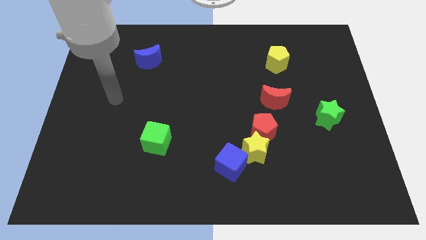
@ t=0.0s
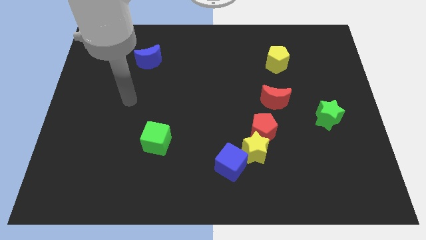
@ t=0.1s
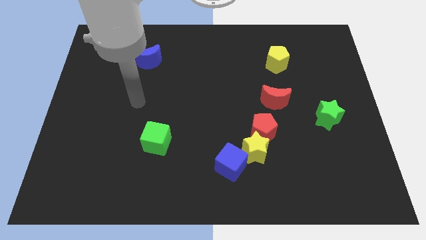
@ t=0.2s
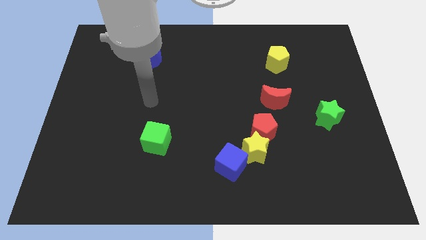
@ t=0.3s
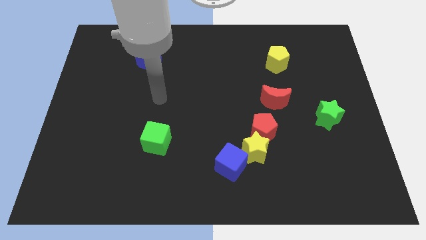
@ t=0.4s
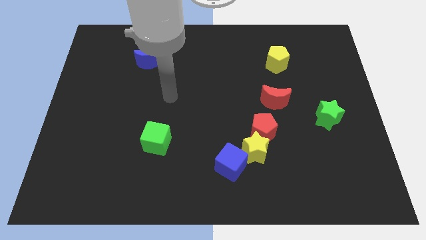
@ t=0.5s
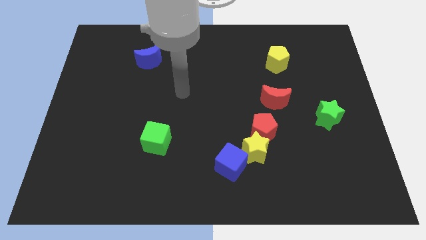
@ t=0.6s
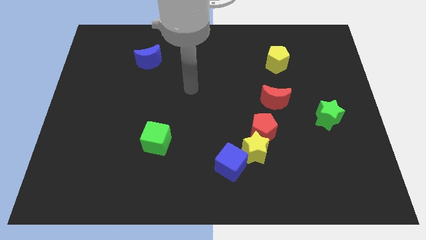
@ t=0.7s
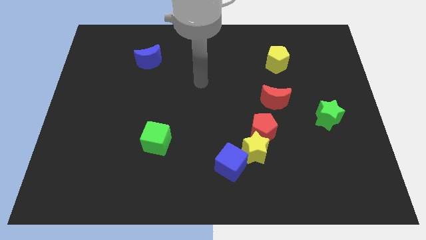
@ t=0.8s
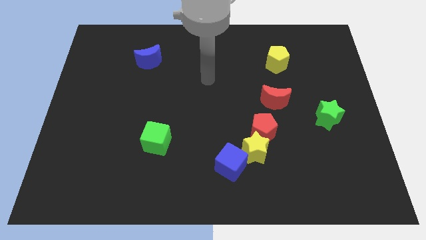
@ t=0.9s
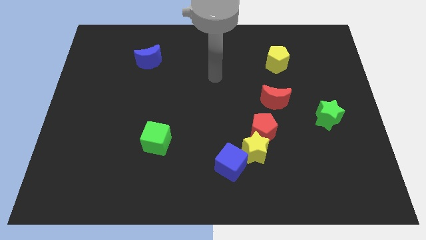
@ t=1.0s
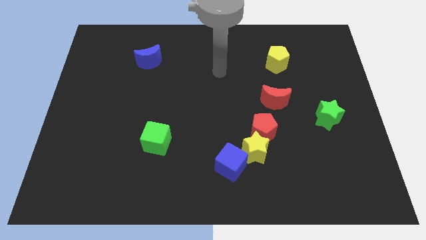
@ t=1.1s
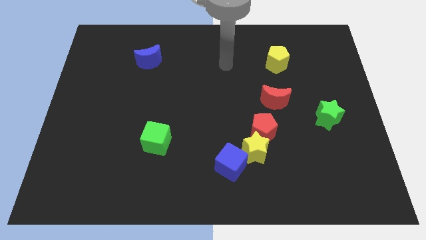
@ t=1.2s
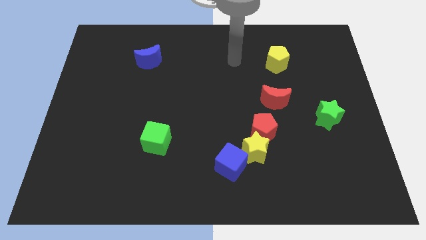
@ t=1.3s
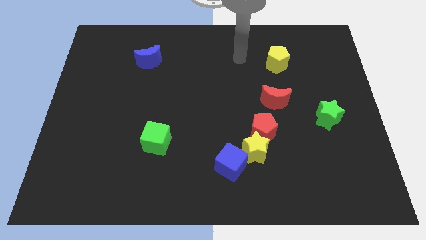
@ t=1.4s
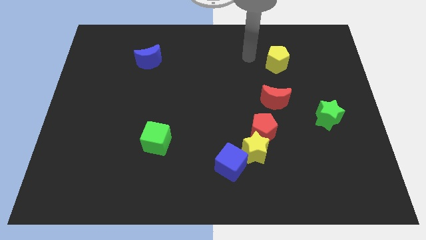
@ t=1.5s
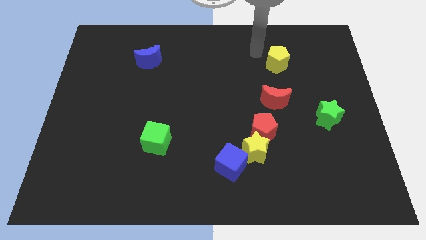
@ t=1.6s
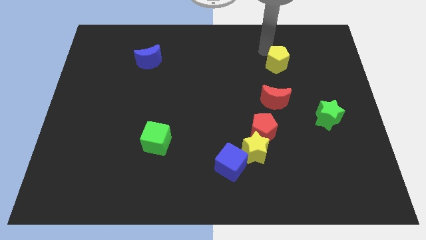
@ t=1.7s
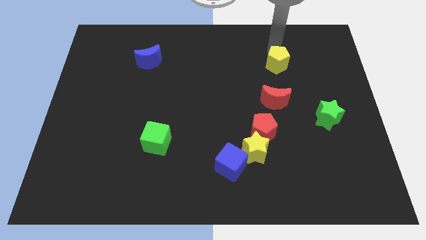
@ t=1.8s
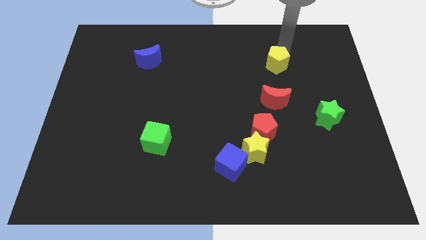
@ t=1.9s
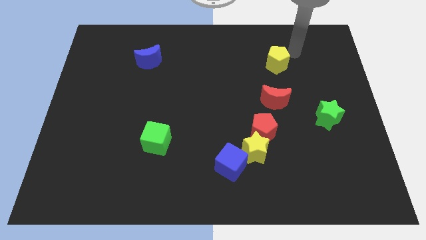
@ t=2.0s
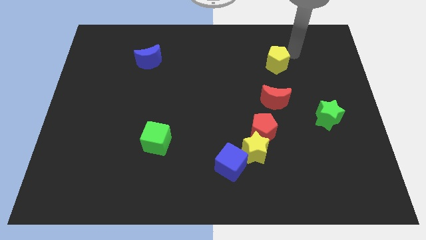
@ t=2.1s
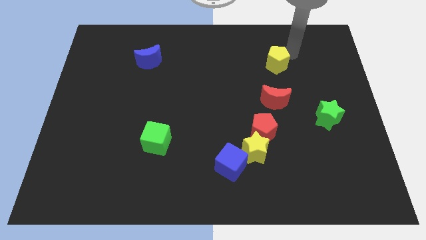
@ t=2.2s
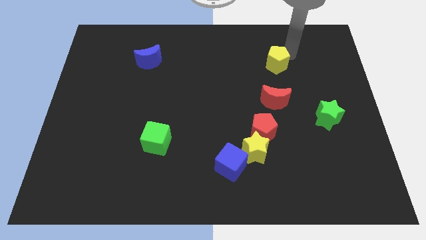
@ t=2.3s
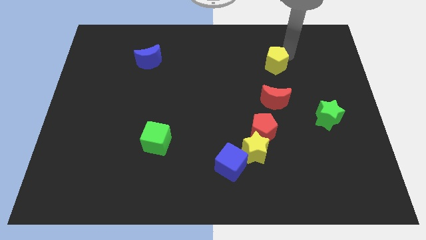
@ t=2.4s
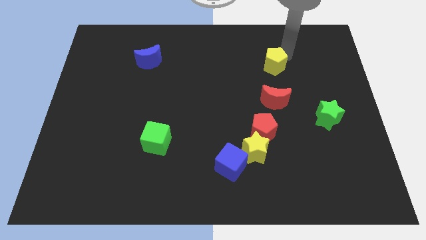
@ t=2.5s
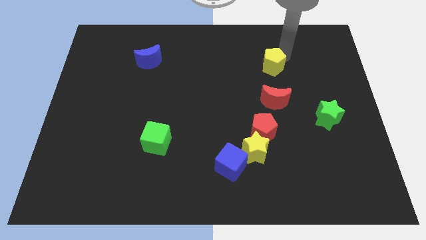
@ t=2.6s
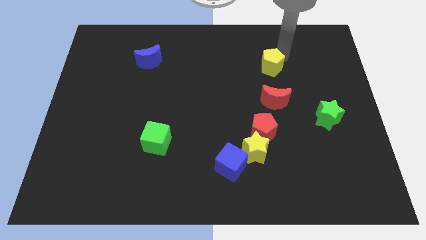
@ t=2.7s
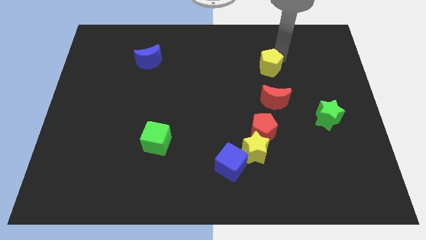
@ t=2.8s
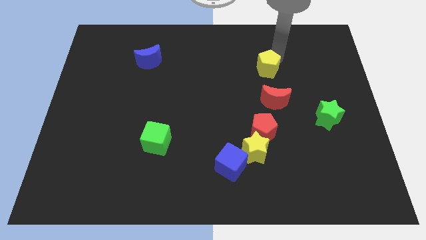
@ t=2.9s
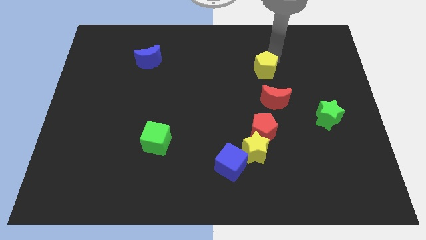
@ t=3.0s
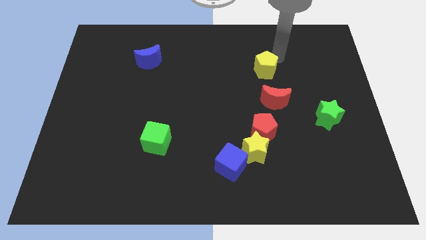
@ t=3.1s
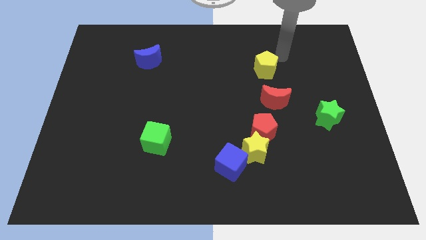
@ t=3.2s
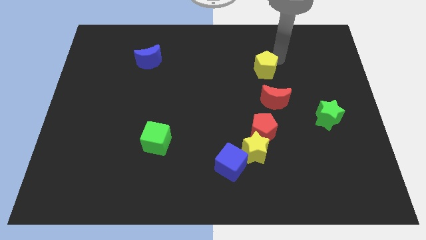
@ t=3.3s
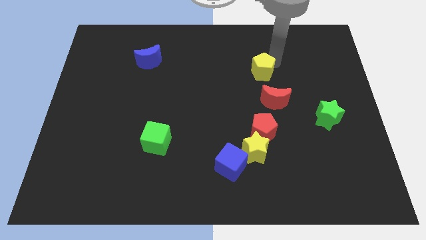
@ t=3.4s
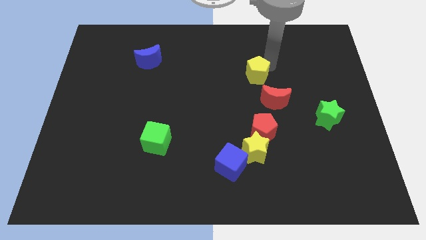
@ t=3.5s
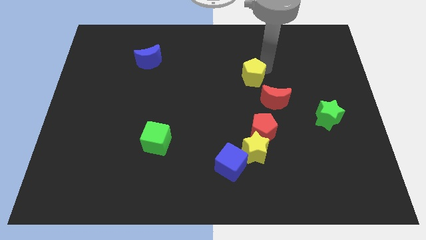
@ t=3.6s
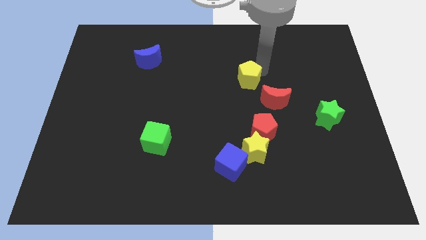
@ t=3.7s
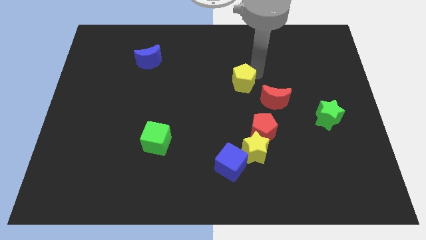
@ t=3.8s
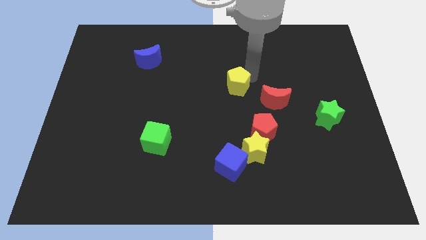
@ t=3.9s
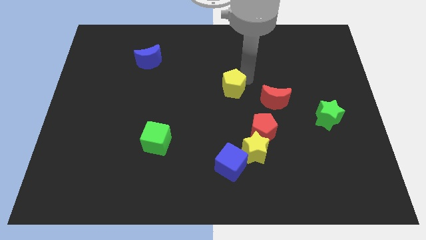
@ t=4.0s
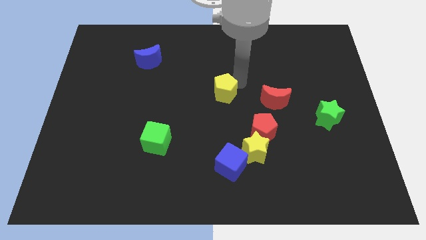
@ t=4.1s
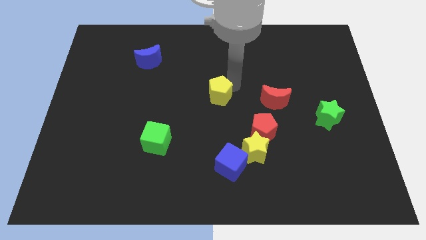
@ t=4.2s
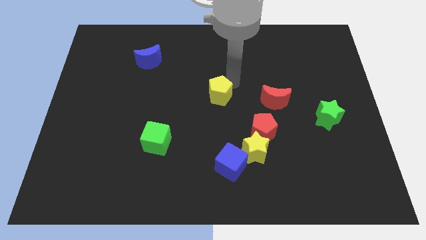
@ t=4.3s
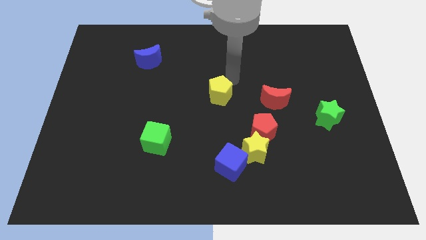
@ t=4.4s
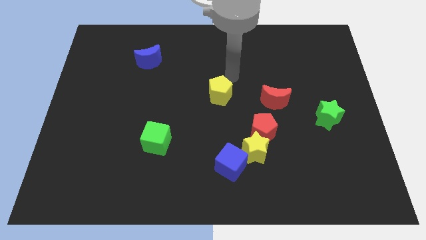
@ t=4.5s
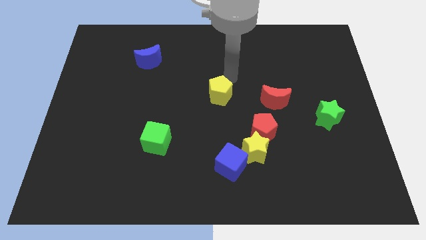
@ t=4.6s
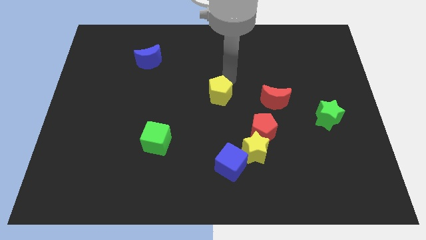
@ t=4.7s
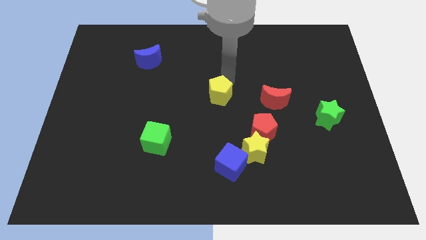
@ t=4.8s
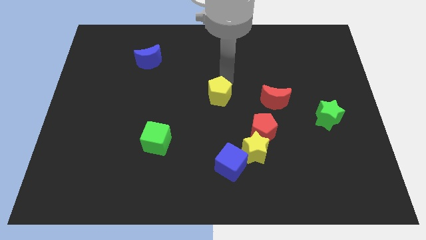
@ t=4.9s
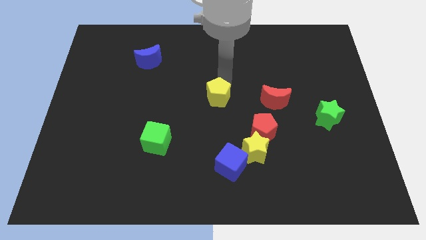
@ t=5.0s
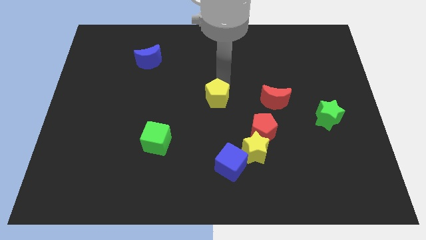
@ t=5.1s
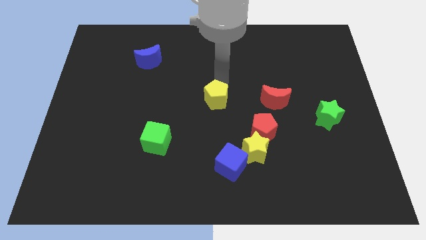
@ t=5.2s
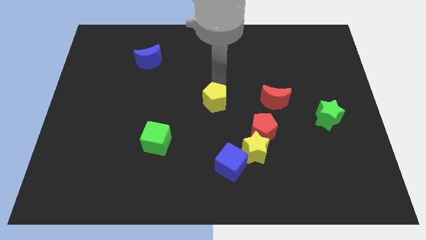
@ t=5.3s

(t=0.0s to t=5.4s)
push the yellow pentagon downwards and left diagonally

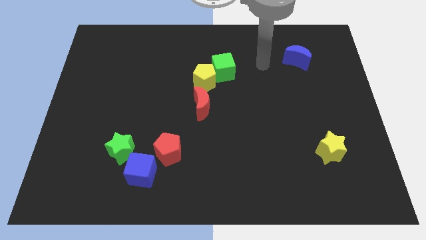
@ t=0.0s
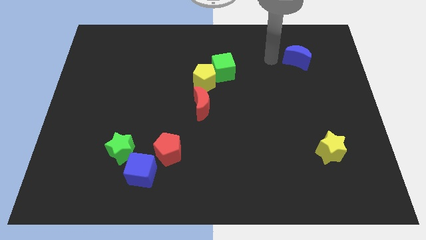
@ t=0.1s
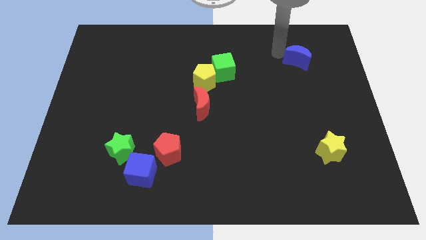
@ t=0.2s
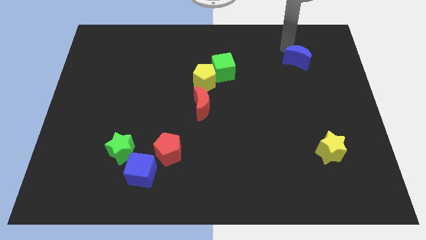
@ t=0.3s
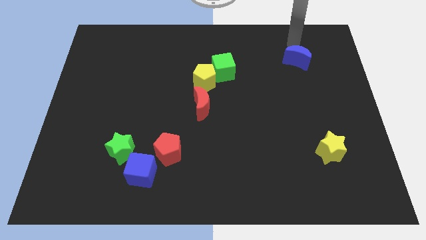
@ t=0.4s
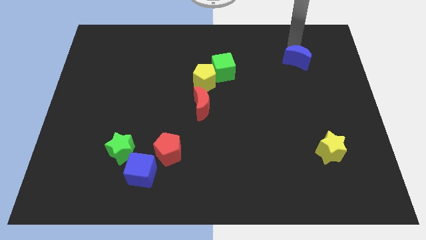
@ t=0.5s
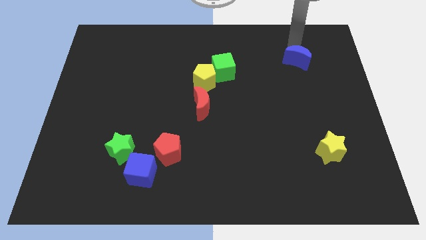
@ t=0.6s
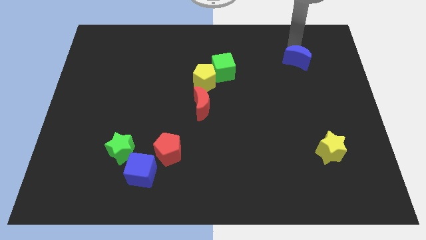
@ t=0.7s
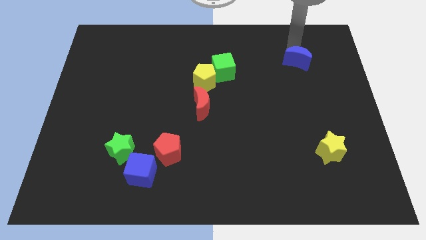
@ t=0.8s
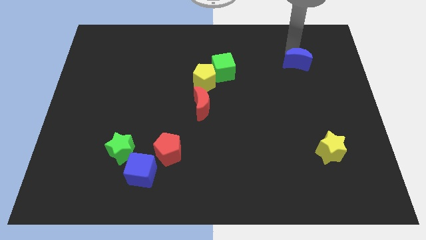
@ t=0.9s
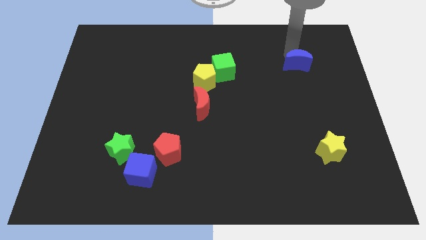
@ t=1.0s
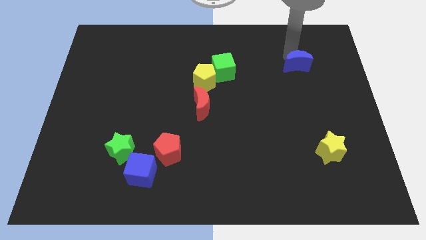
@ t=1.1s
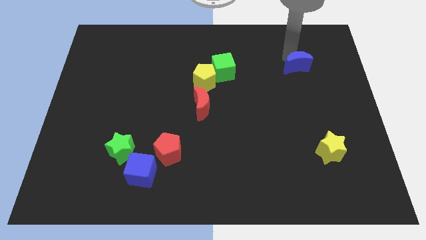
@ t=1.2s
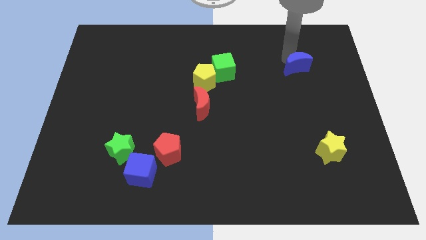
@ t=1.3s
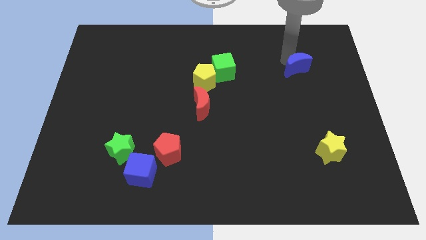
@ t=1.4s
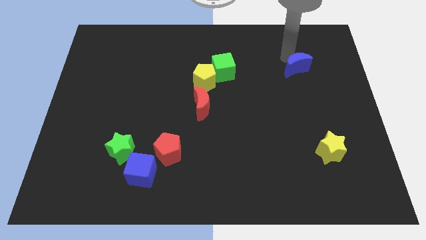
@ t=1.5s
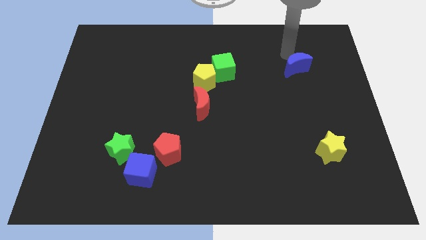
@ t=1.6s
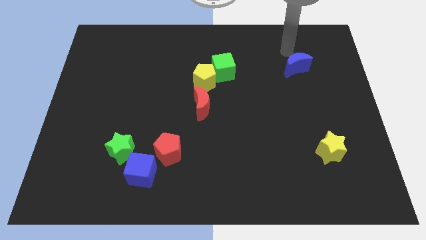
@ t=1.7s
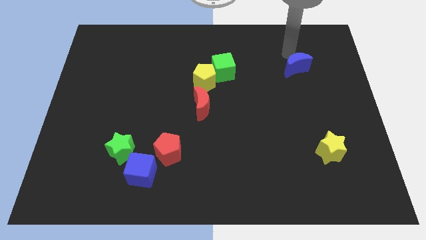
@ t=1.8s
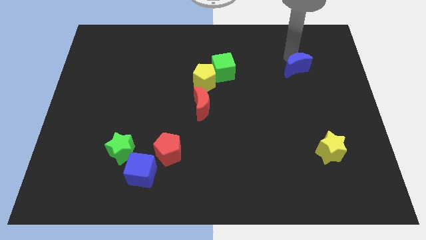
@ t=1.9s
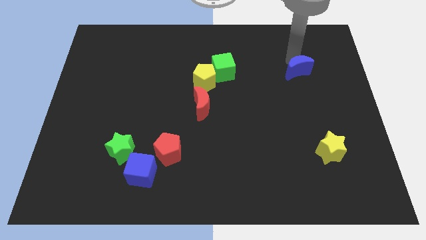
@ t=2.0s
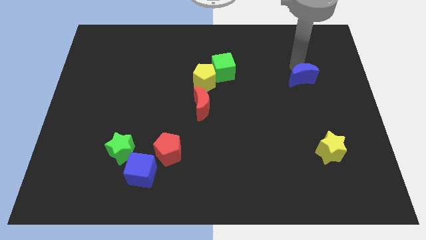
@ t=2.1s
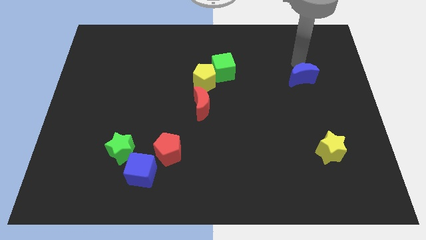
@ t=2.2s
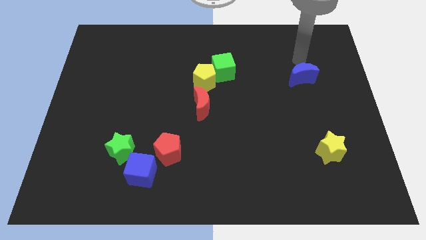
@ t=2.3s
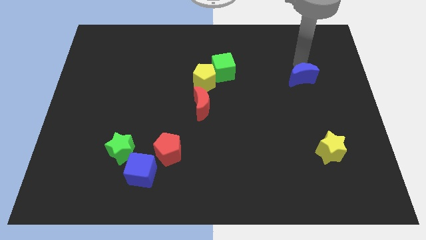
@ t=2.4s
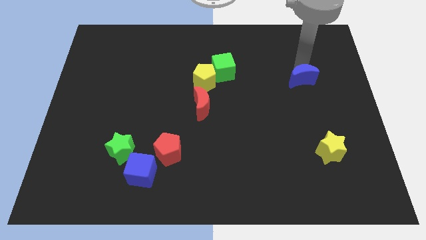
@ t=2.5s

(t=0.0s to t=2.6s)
push the blue moon down somewhat

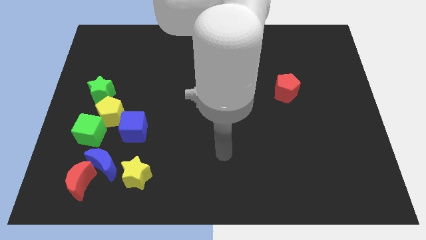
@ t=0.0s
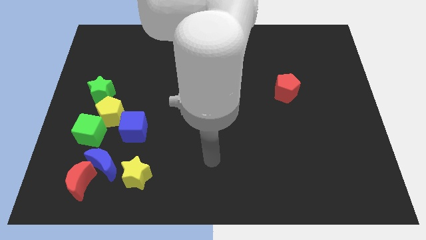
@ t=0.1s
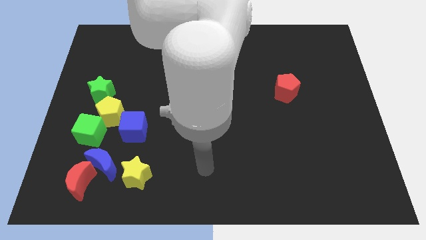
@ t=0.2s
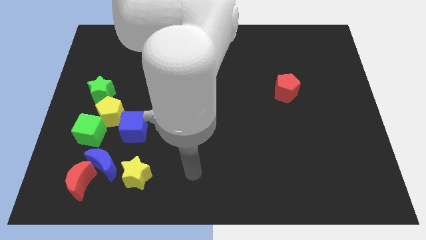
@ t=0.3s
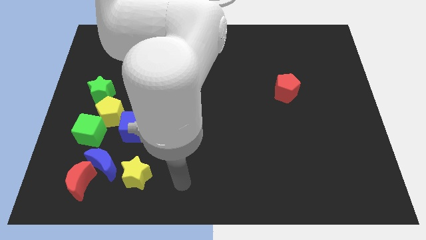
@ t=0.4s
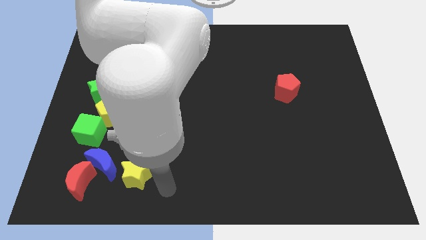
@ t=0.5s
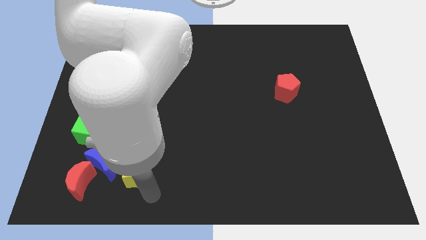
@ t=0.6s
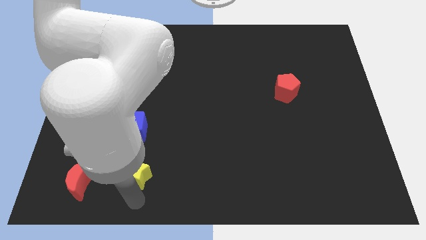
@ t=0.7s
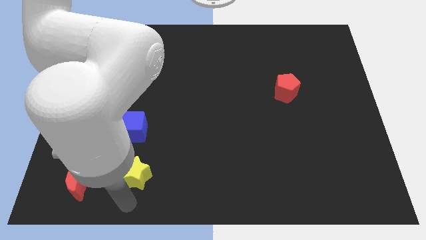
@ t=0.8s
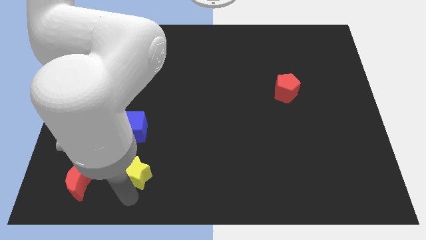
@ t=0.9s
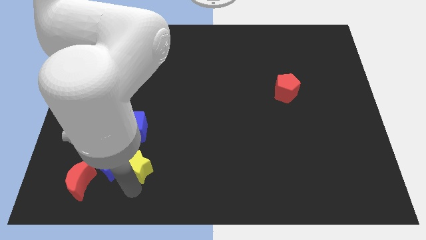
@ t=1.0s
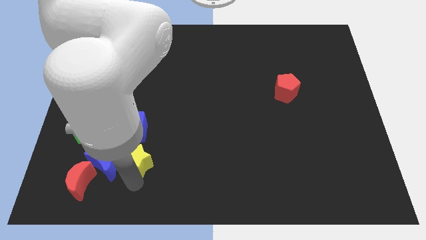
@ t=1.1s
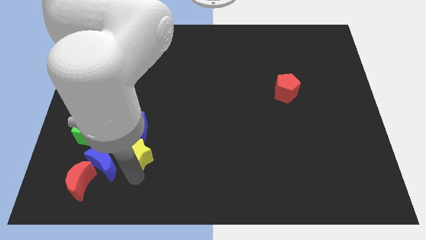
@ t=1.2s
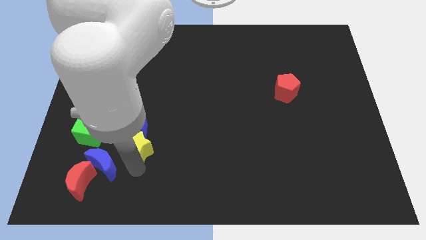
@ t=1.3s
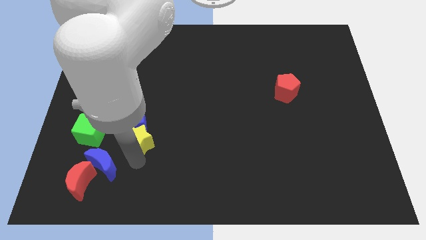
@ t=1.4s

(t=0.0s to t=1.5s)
push the yellow star somewhat upwards
